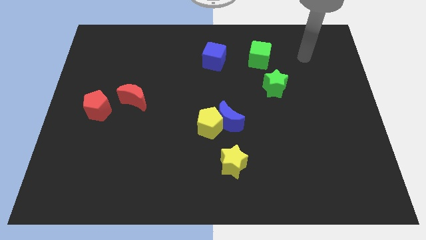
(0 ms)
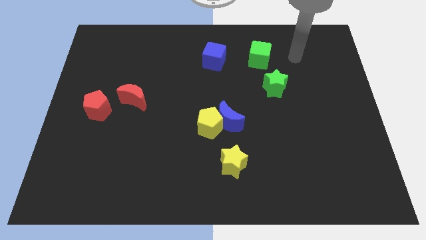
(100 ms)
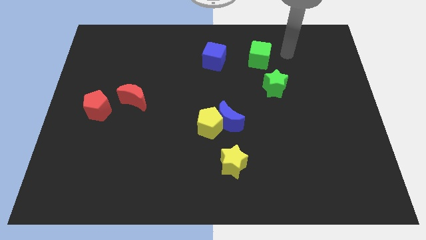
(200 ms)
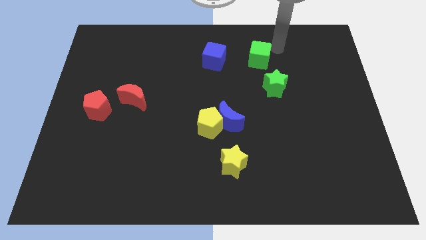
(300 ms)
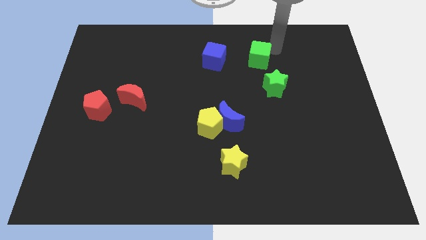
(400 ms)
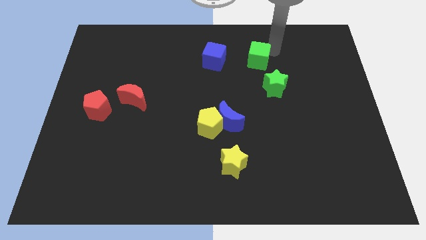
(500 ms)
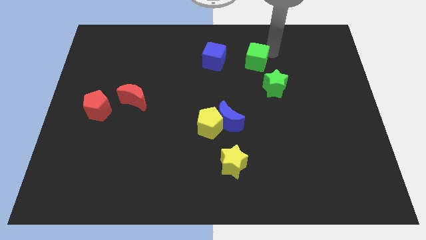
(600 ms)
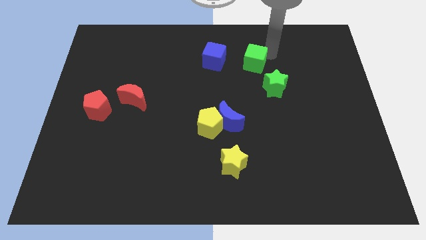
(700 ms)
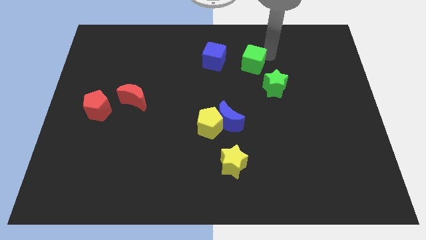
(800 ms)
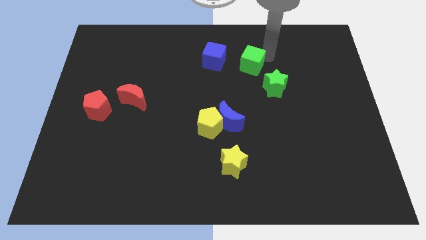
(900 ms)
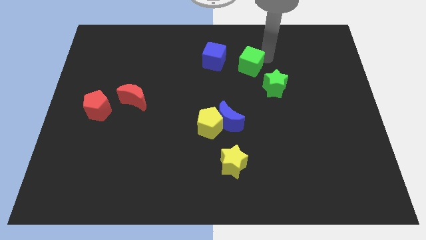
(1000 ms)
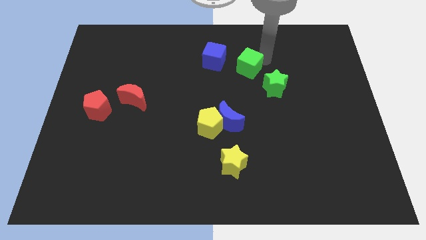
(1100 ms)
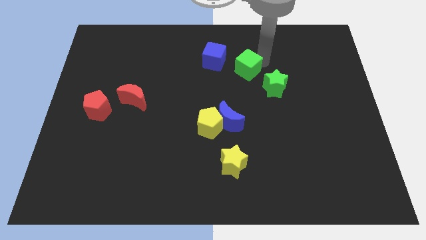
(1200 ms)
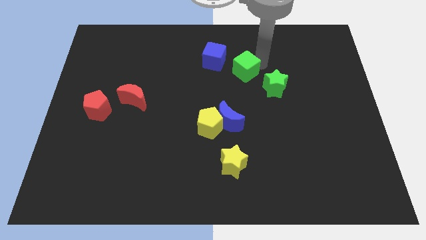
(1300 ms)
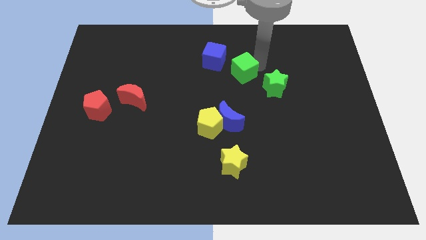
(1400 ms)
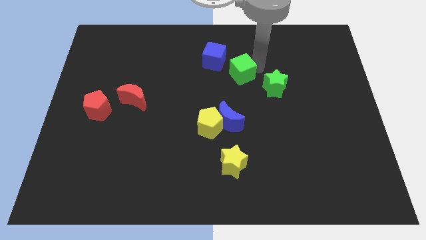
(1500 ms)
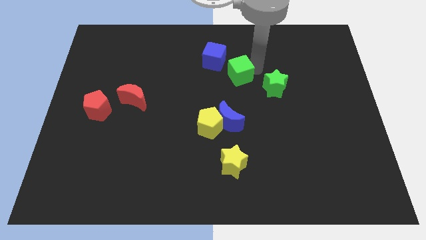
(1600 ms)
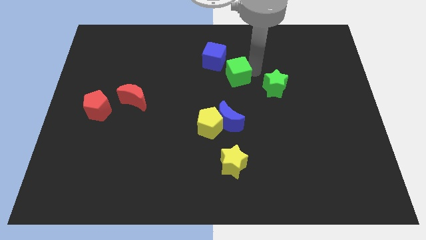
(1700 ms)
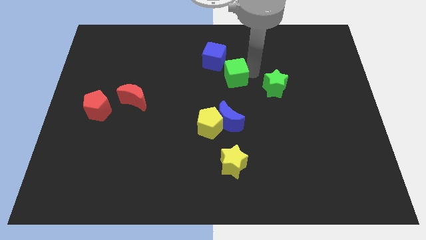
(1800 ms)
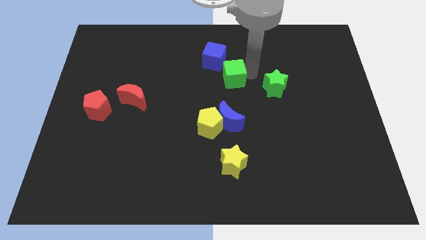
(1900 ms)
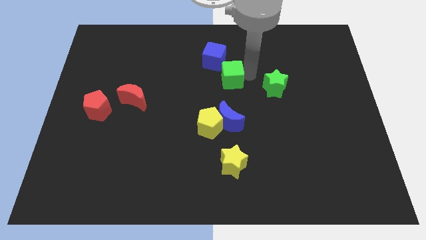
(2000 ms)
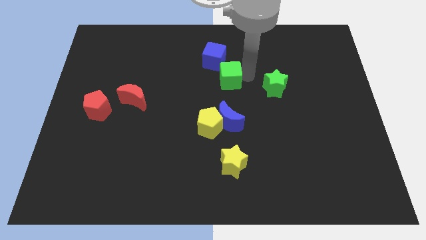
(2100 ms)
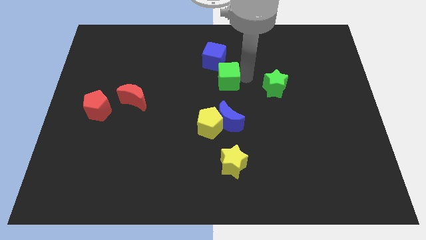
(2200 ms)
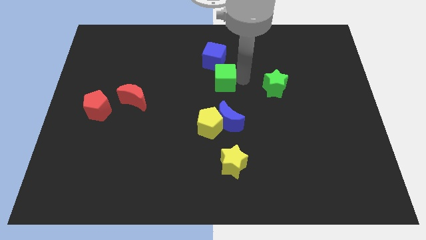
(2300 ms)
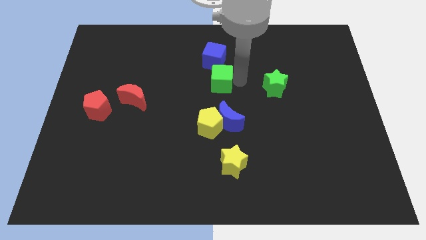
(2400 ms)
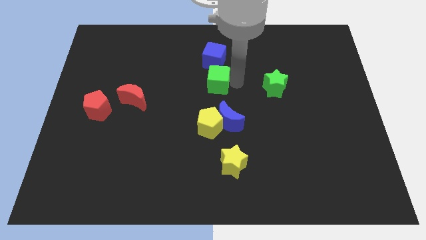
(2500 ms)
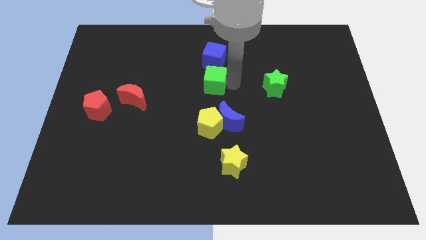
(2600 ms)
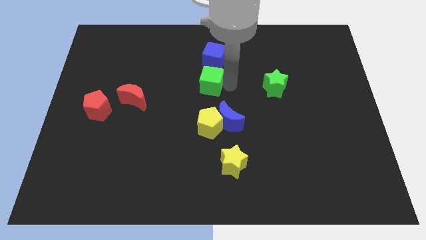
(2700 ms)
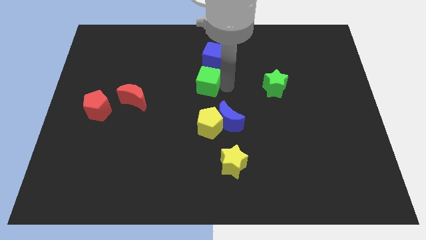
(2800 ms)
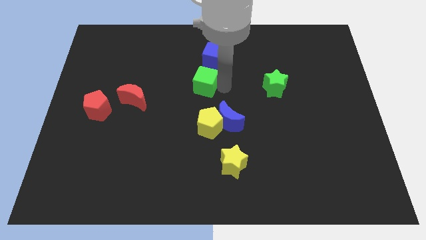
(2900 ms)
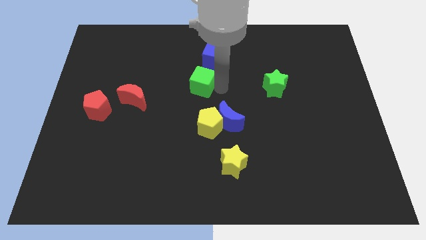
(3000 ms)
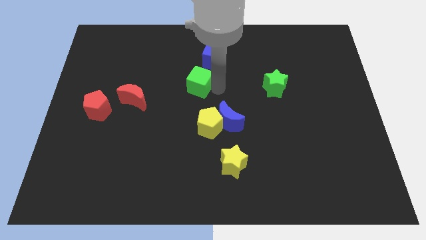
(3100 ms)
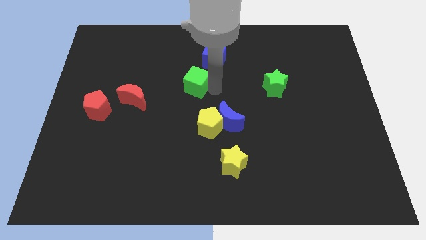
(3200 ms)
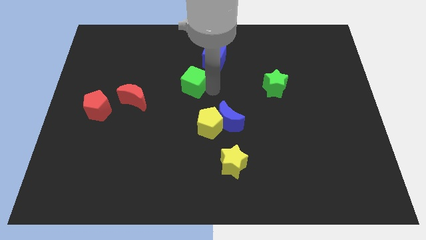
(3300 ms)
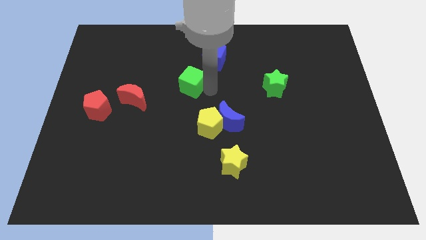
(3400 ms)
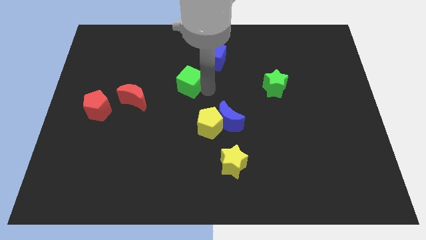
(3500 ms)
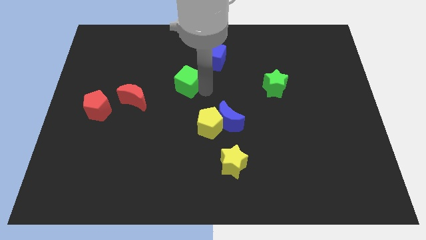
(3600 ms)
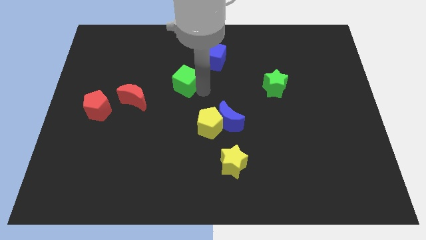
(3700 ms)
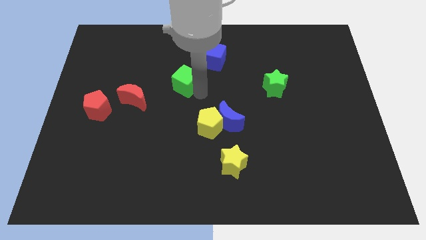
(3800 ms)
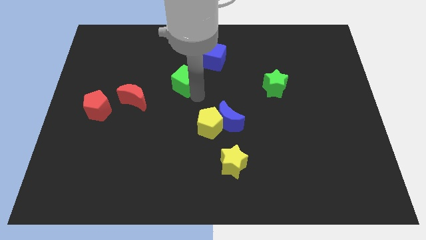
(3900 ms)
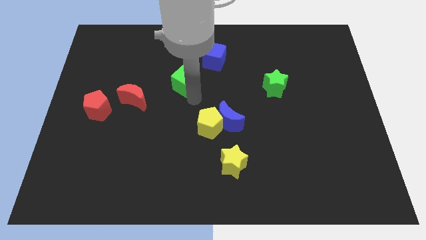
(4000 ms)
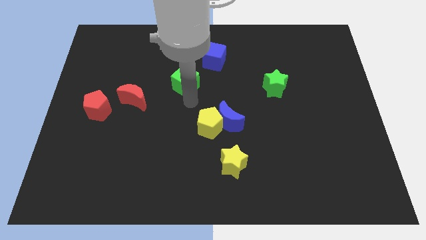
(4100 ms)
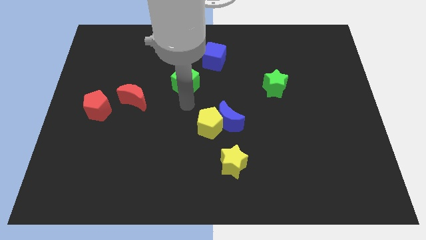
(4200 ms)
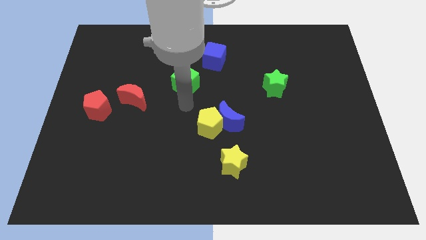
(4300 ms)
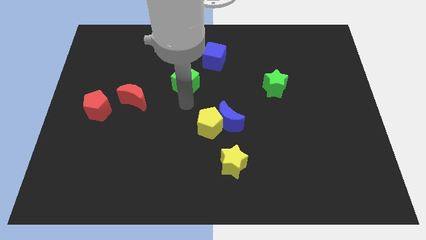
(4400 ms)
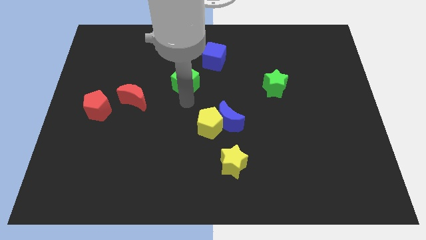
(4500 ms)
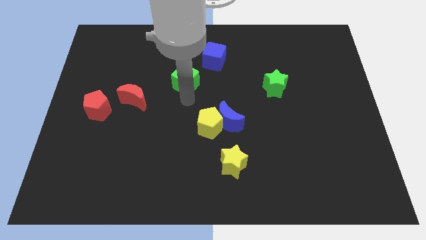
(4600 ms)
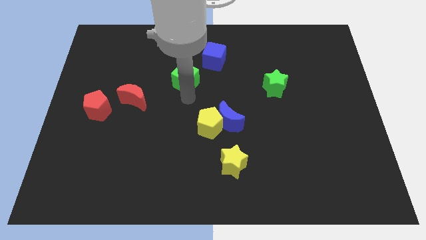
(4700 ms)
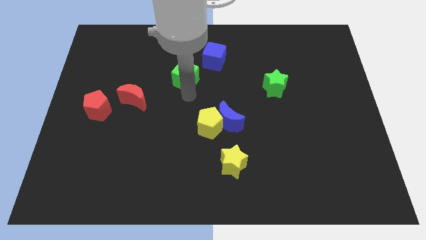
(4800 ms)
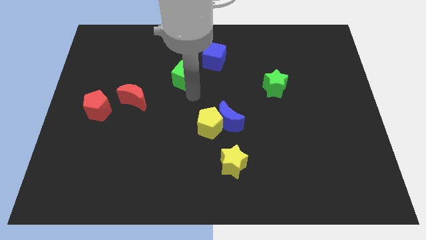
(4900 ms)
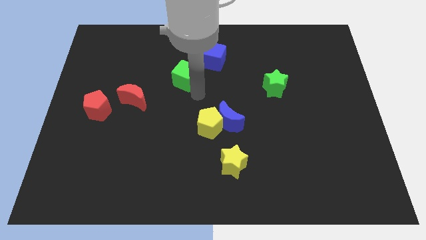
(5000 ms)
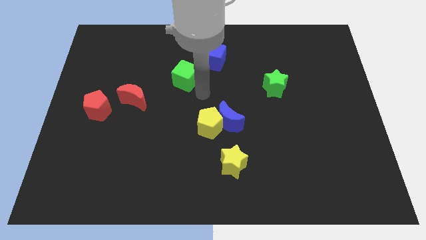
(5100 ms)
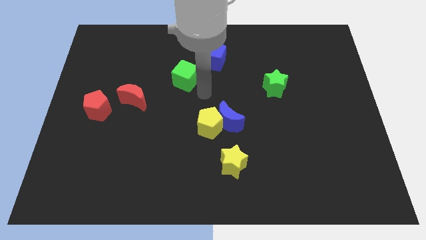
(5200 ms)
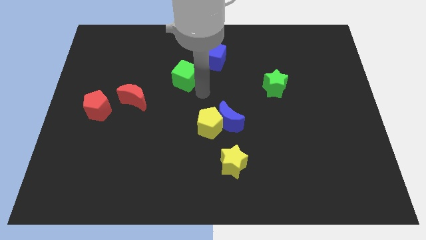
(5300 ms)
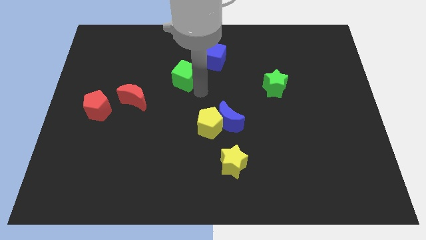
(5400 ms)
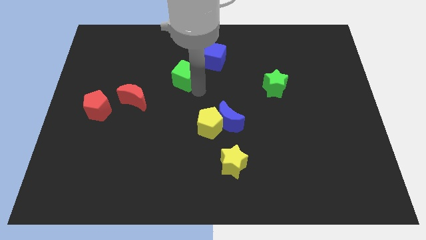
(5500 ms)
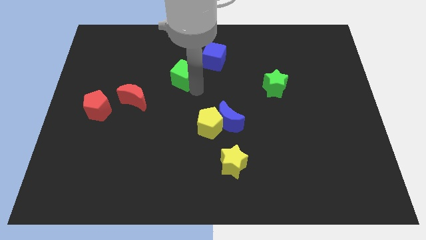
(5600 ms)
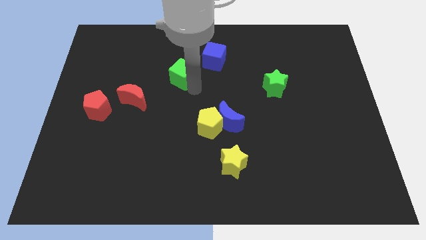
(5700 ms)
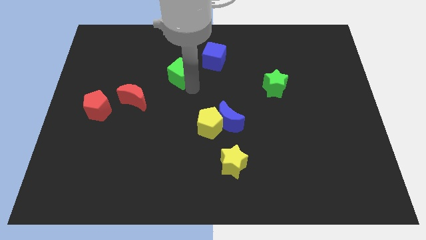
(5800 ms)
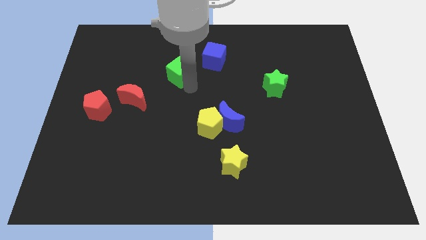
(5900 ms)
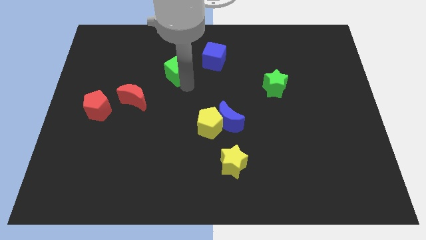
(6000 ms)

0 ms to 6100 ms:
move the green cube to the left

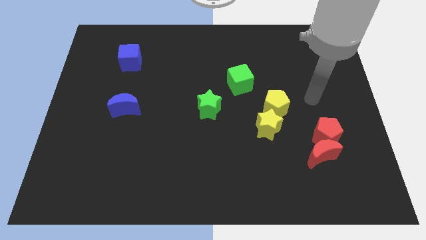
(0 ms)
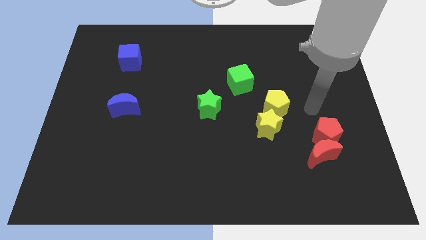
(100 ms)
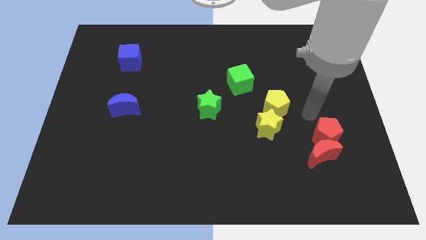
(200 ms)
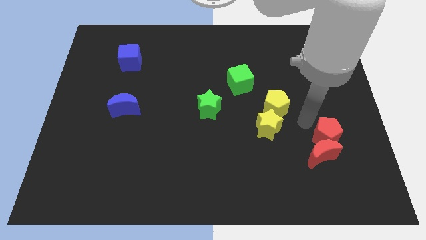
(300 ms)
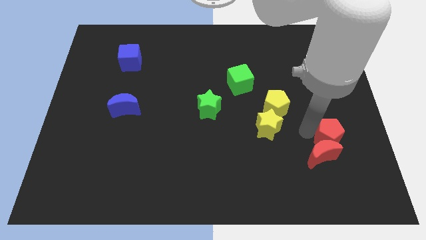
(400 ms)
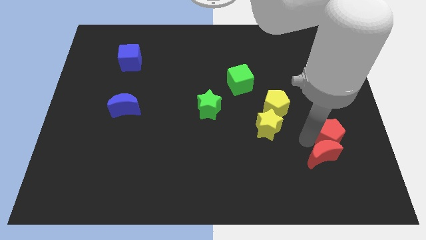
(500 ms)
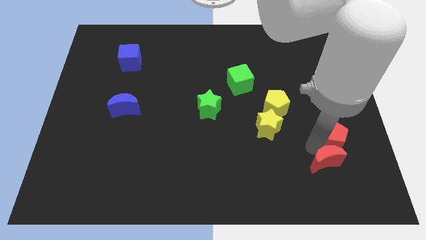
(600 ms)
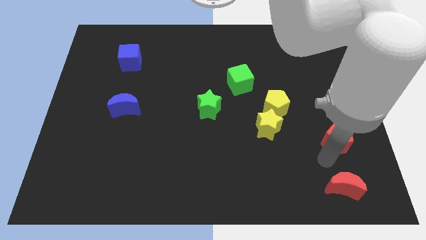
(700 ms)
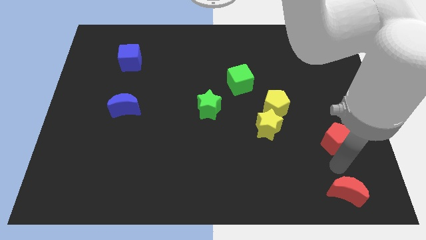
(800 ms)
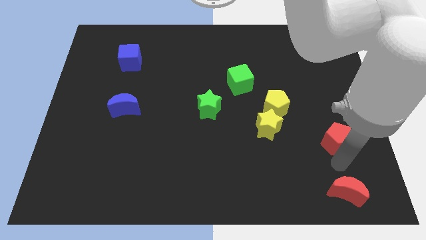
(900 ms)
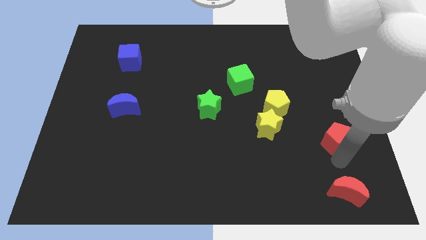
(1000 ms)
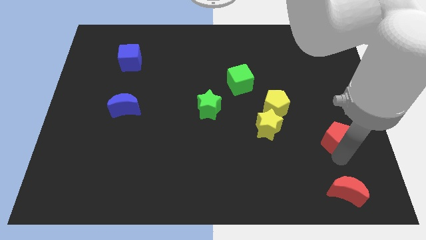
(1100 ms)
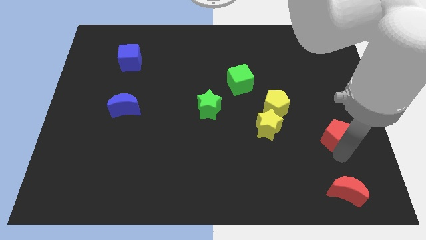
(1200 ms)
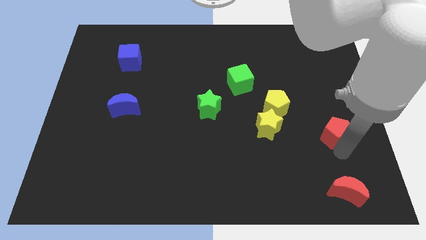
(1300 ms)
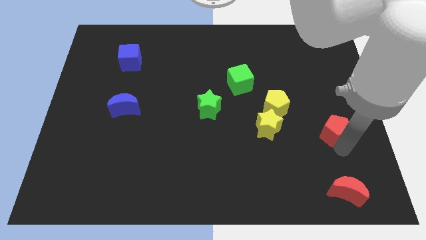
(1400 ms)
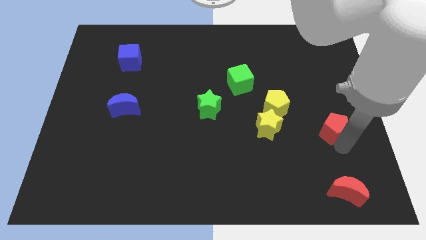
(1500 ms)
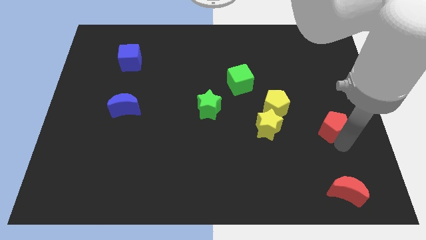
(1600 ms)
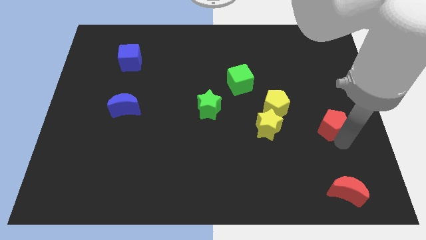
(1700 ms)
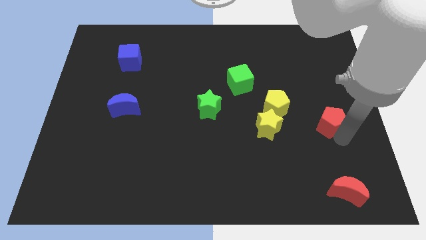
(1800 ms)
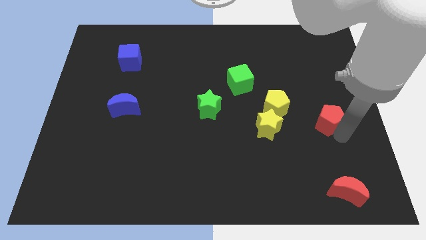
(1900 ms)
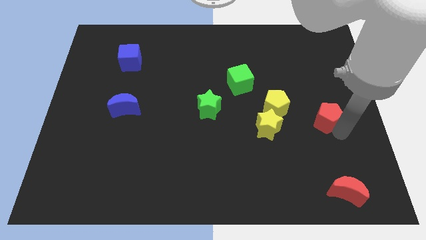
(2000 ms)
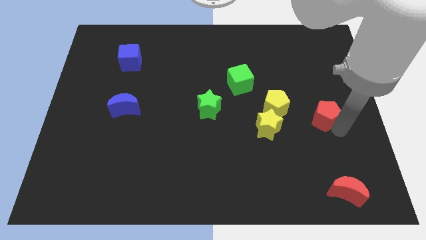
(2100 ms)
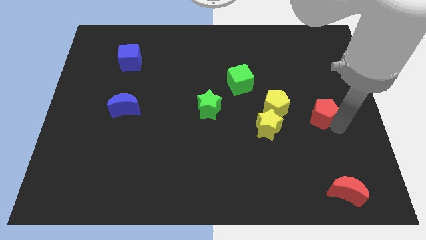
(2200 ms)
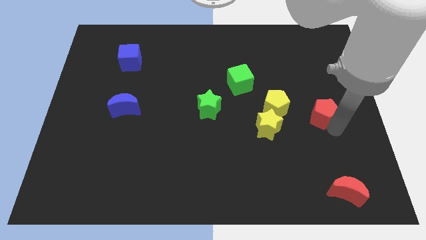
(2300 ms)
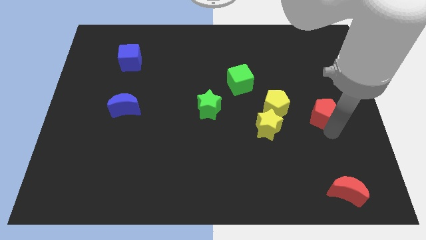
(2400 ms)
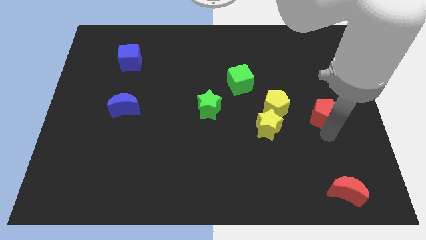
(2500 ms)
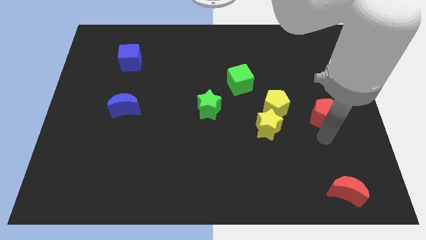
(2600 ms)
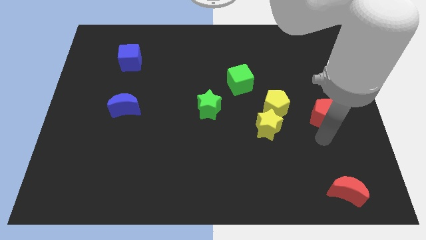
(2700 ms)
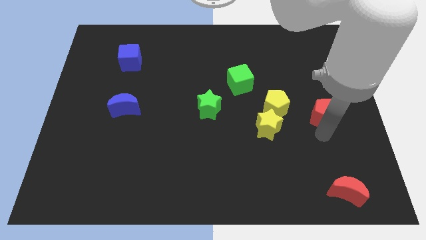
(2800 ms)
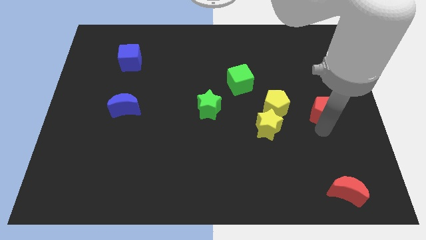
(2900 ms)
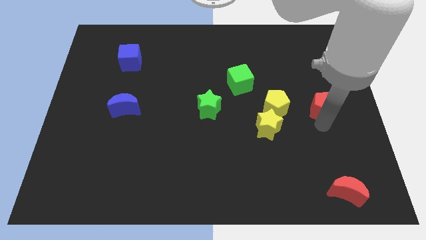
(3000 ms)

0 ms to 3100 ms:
move the red pentagon slightly upwards
